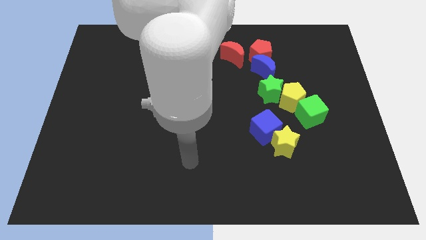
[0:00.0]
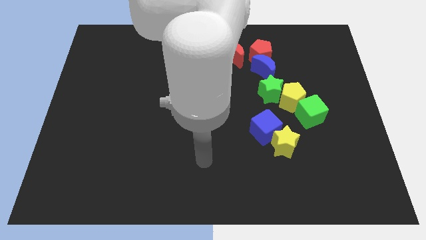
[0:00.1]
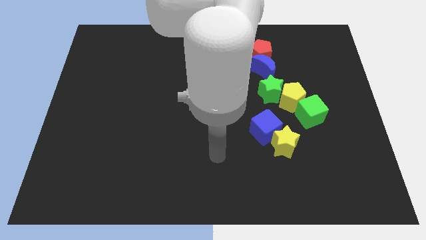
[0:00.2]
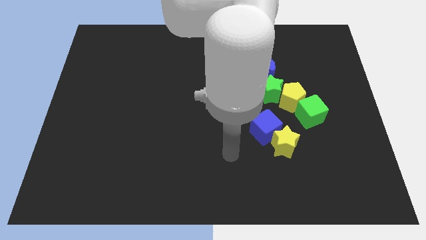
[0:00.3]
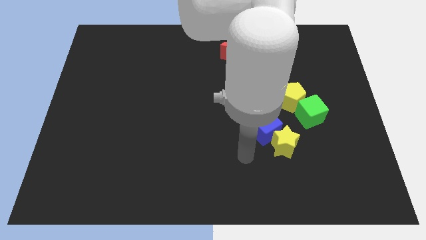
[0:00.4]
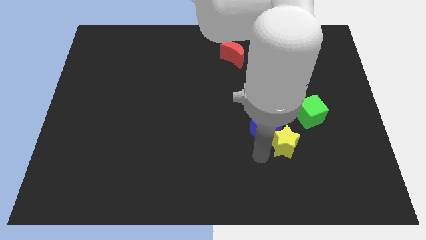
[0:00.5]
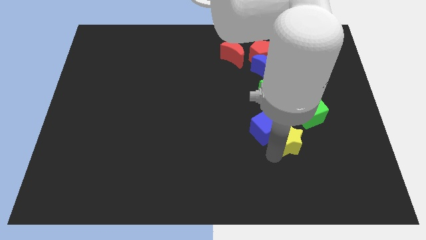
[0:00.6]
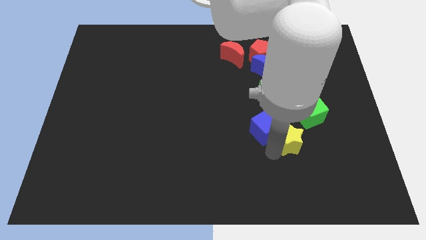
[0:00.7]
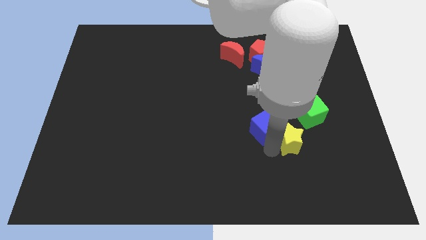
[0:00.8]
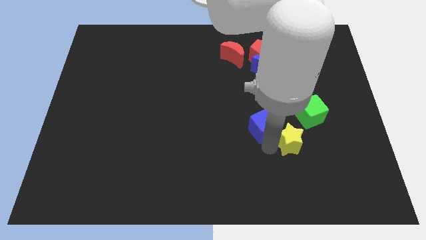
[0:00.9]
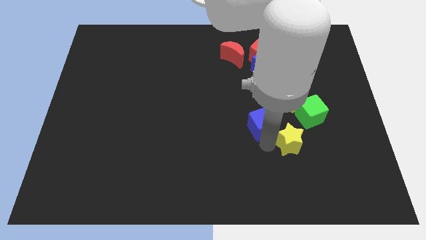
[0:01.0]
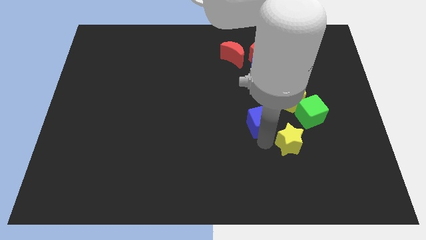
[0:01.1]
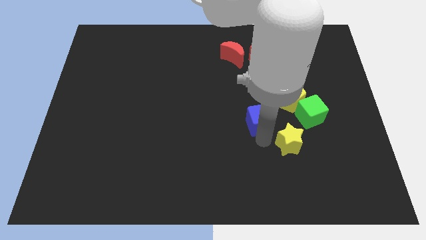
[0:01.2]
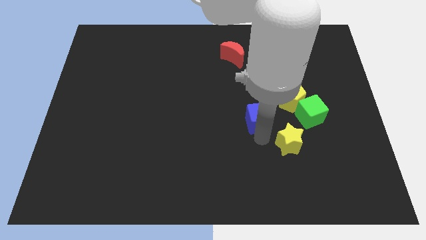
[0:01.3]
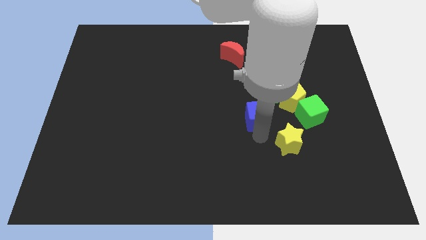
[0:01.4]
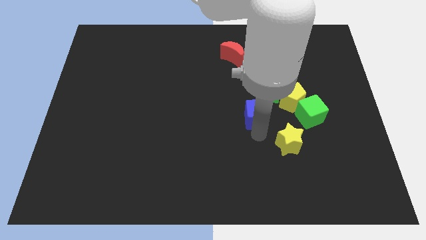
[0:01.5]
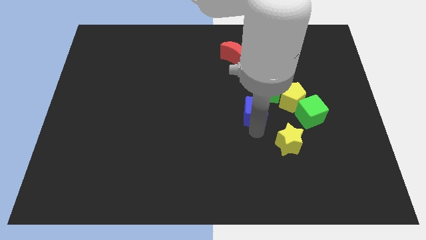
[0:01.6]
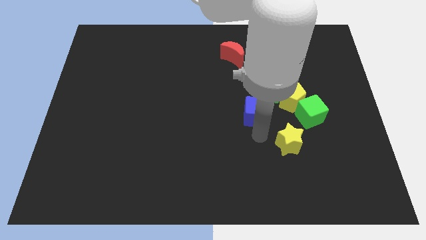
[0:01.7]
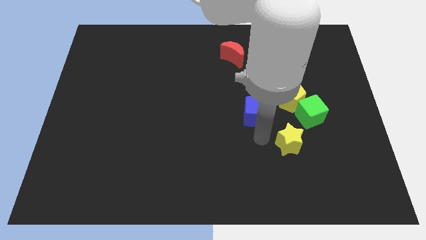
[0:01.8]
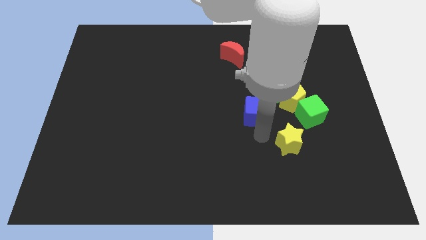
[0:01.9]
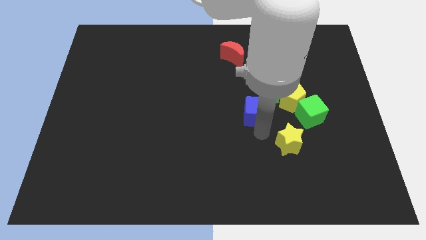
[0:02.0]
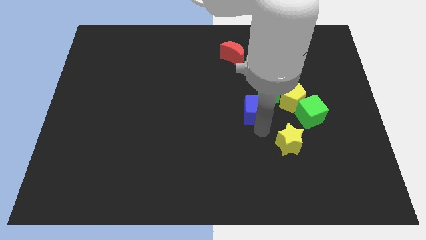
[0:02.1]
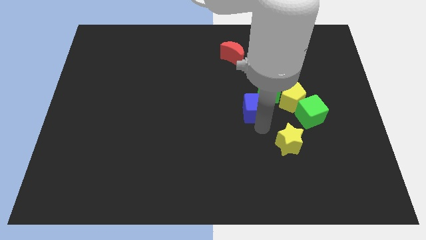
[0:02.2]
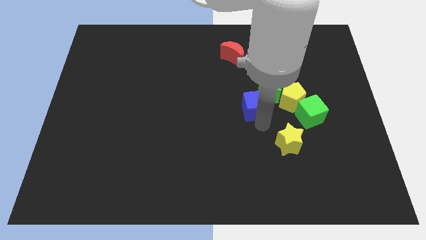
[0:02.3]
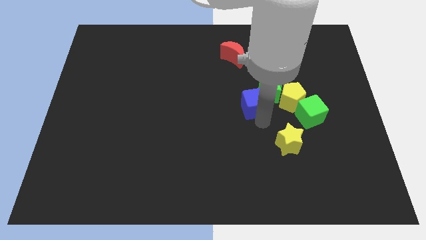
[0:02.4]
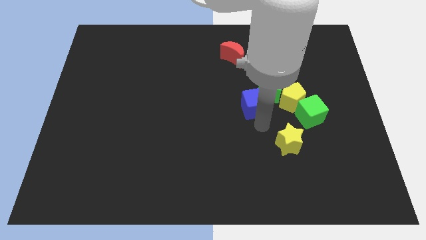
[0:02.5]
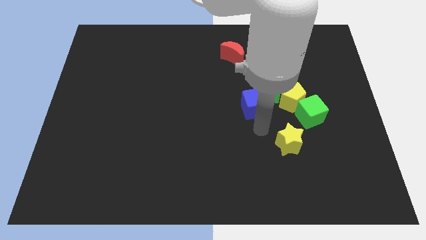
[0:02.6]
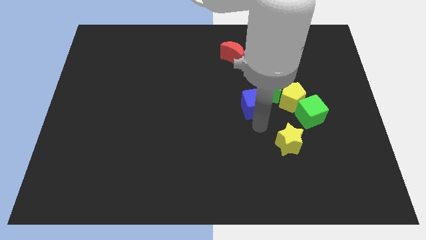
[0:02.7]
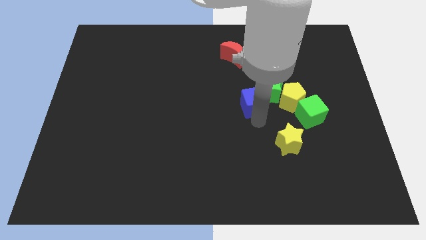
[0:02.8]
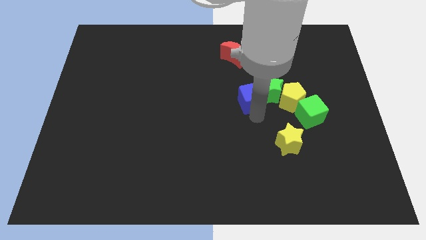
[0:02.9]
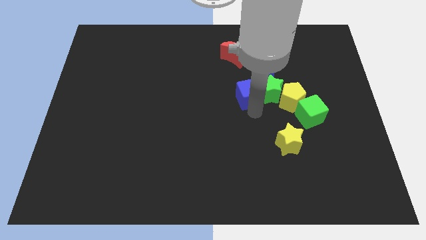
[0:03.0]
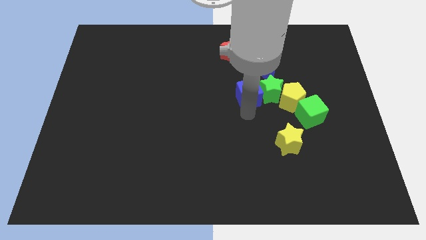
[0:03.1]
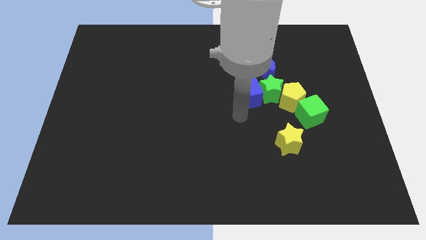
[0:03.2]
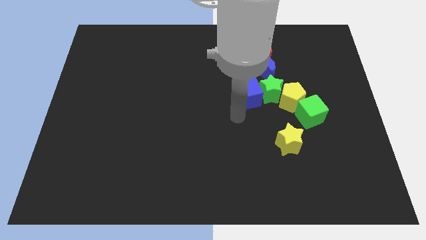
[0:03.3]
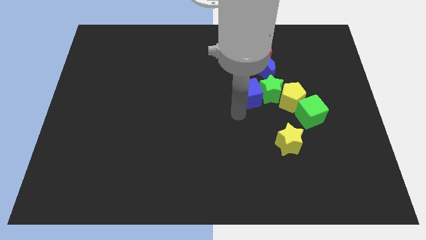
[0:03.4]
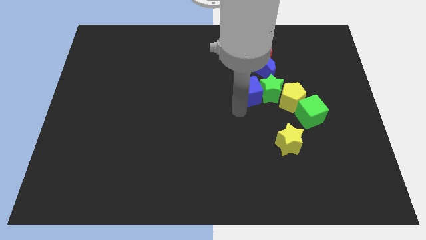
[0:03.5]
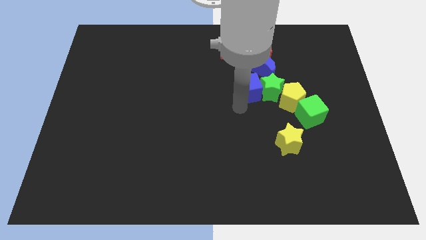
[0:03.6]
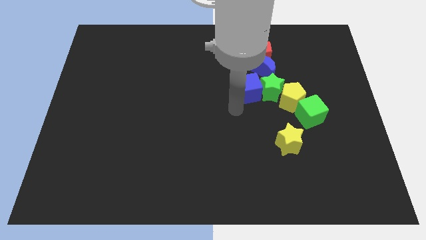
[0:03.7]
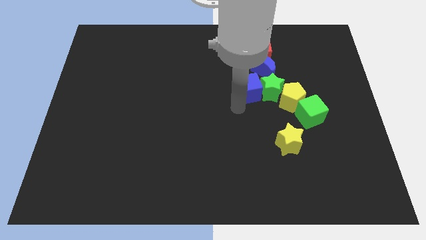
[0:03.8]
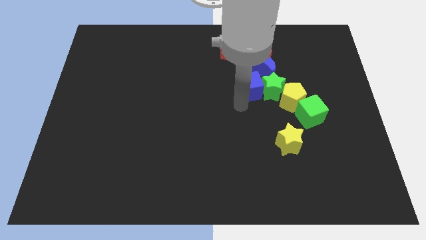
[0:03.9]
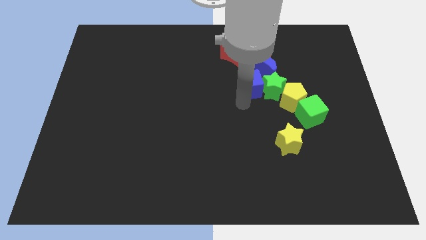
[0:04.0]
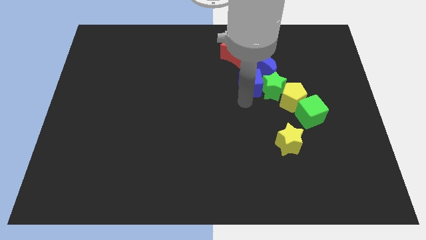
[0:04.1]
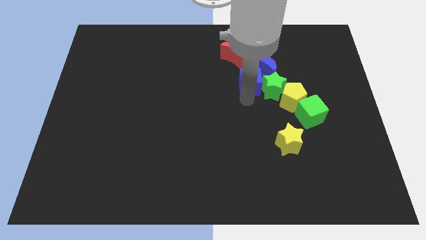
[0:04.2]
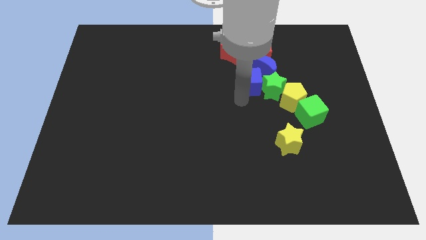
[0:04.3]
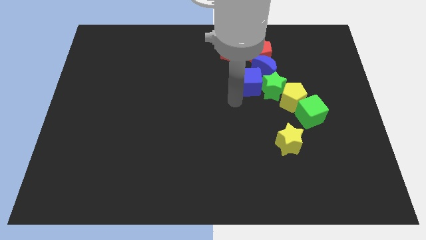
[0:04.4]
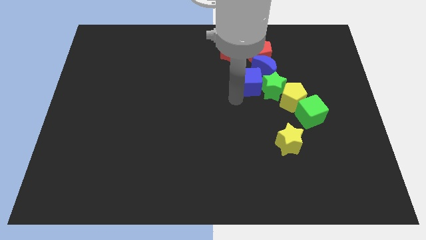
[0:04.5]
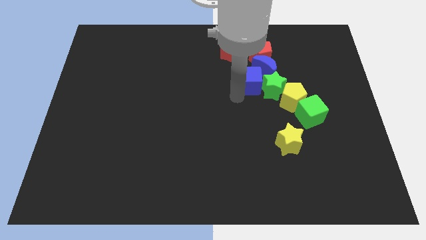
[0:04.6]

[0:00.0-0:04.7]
push the blue cube close to the blue moon

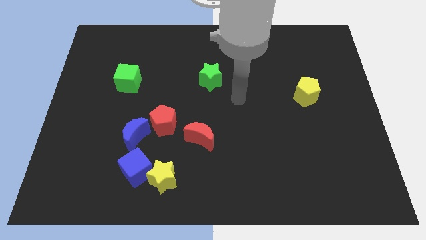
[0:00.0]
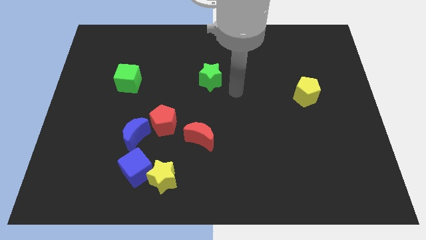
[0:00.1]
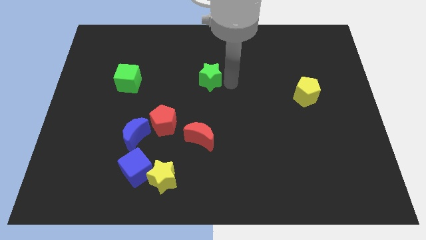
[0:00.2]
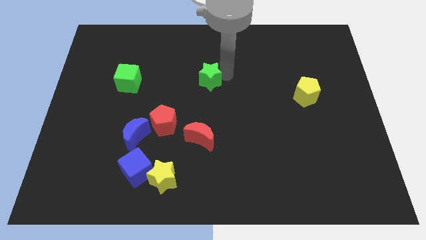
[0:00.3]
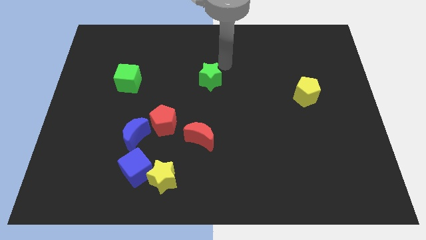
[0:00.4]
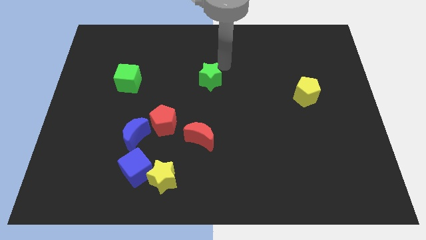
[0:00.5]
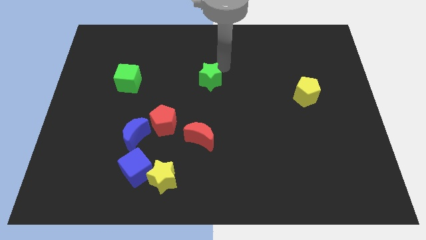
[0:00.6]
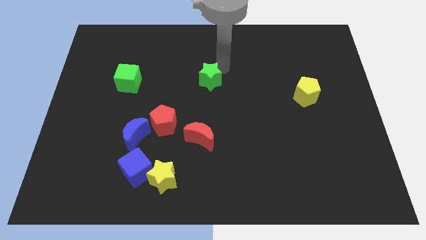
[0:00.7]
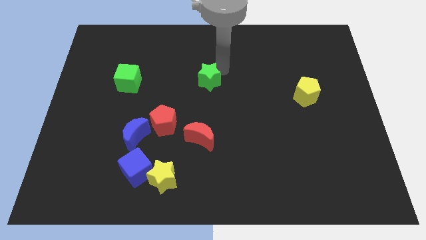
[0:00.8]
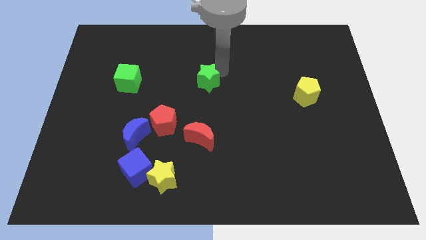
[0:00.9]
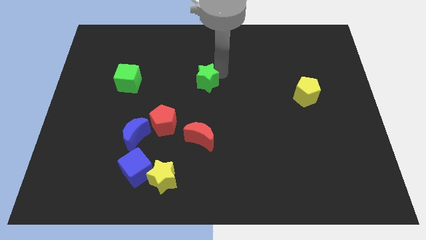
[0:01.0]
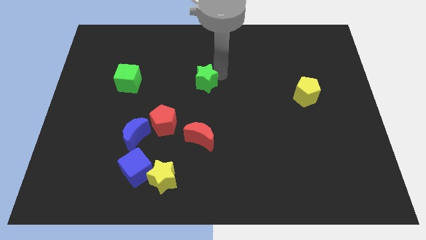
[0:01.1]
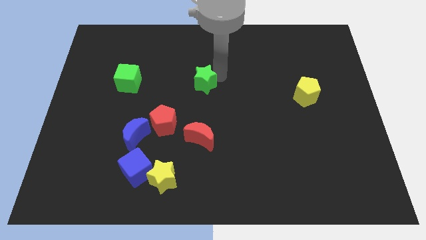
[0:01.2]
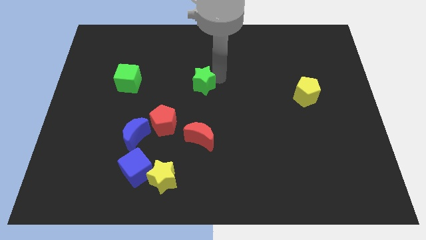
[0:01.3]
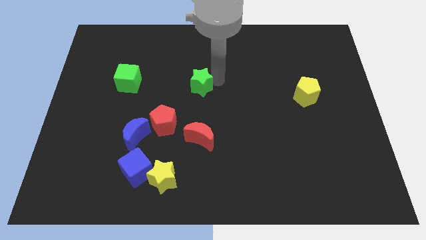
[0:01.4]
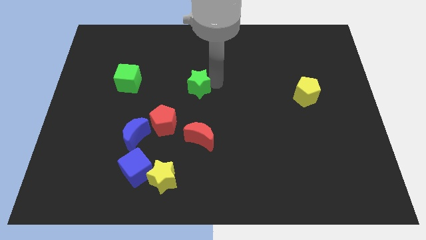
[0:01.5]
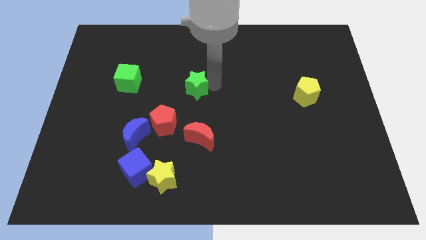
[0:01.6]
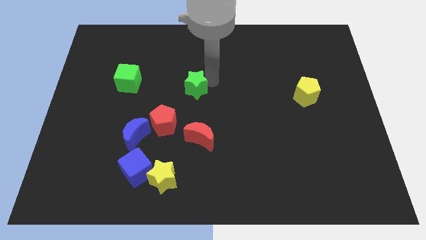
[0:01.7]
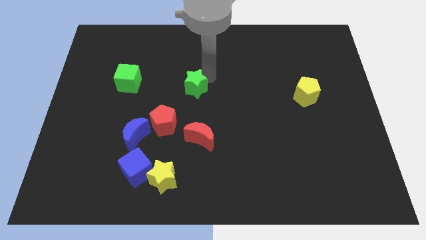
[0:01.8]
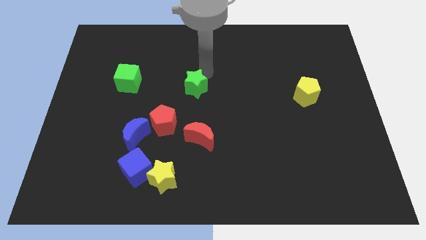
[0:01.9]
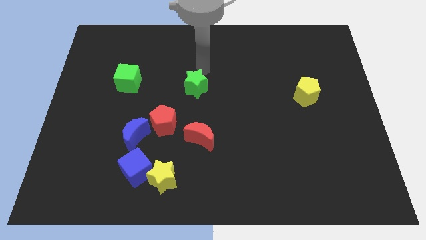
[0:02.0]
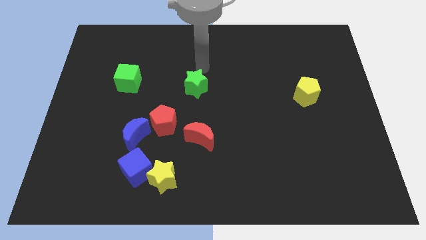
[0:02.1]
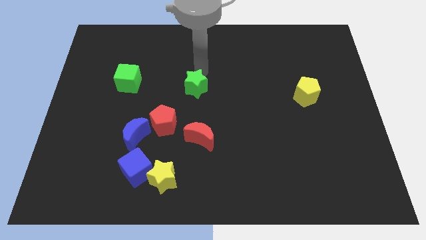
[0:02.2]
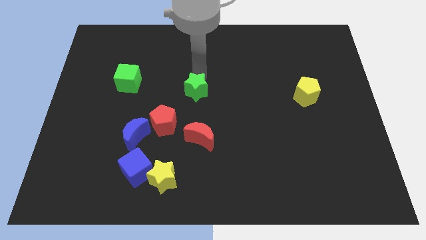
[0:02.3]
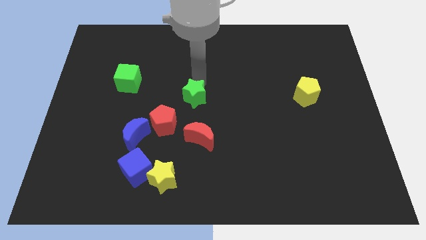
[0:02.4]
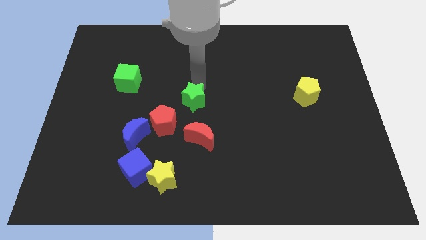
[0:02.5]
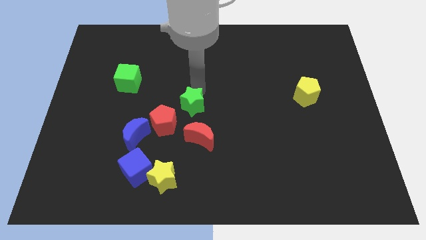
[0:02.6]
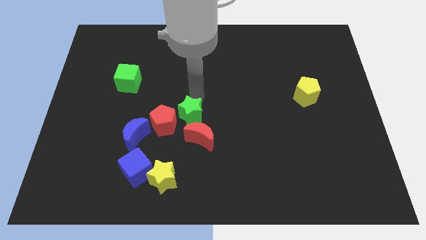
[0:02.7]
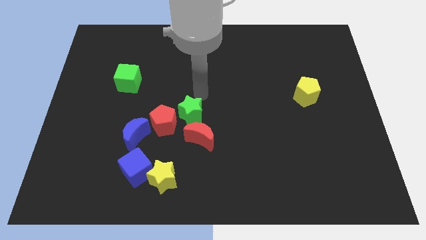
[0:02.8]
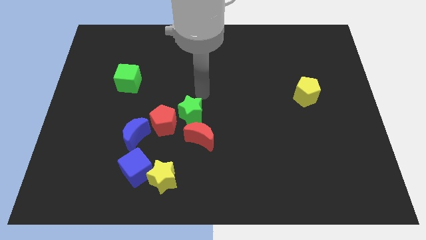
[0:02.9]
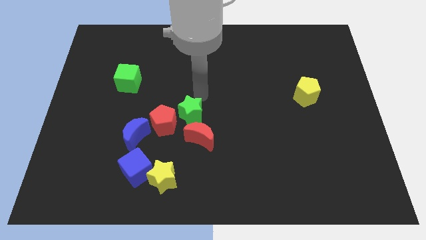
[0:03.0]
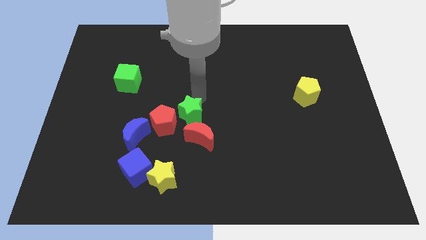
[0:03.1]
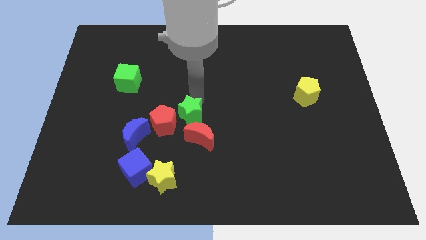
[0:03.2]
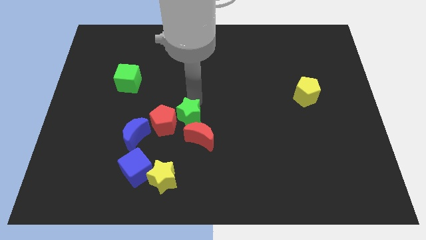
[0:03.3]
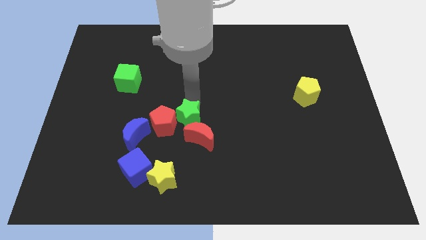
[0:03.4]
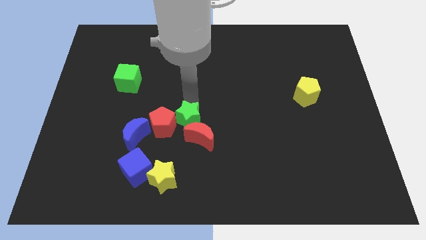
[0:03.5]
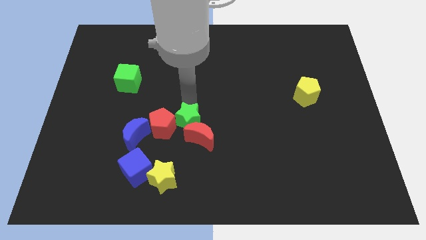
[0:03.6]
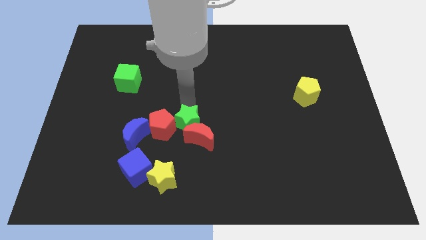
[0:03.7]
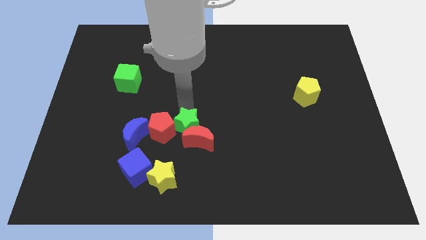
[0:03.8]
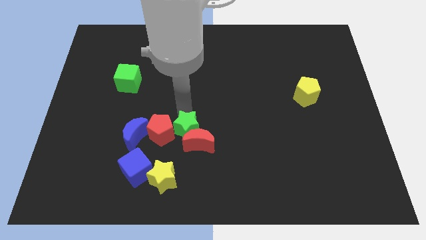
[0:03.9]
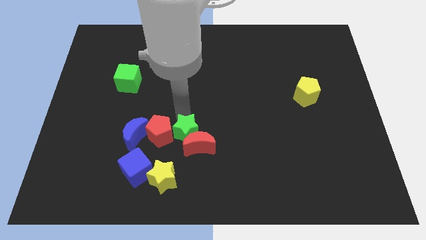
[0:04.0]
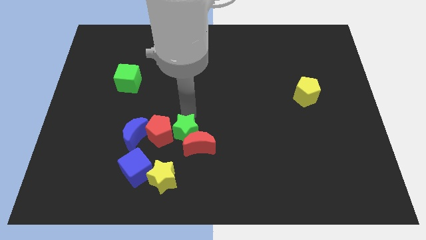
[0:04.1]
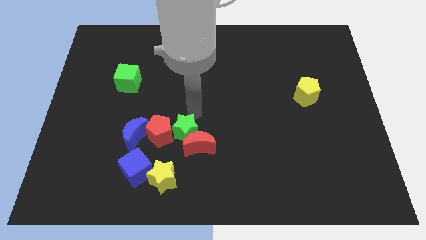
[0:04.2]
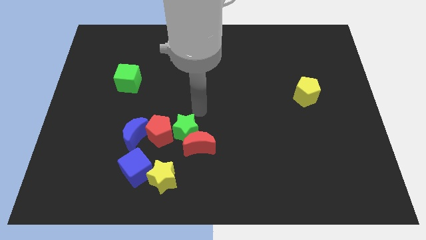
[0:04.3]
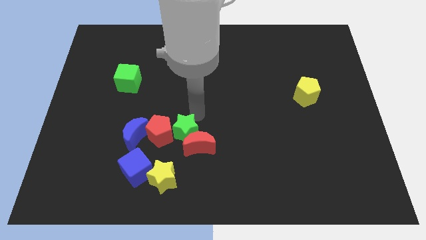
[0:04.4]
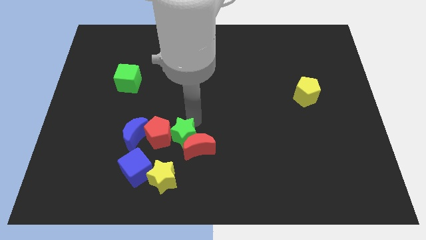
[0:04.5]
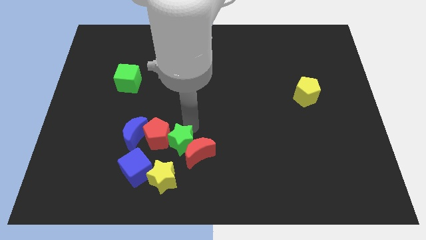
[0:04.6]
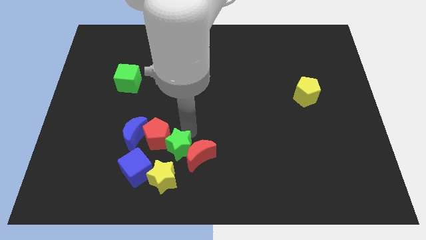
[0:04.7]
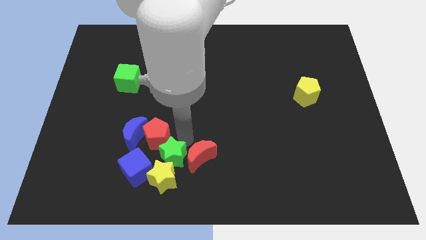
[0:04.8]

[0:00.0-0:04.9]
put the green star towards the yellow star
